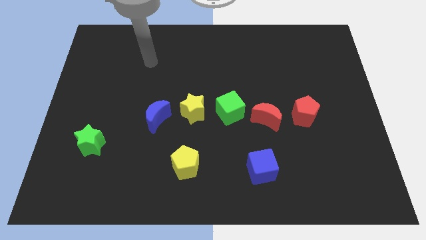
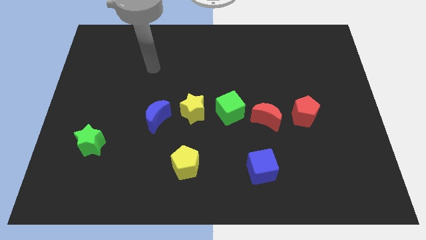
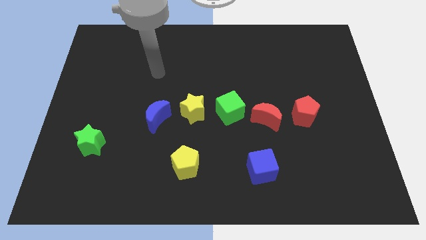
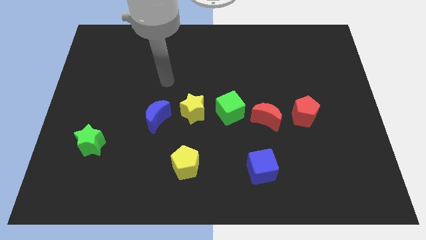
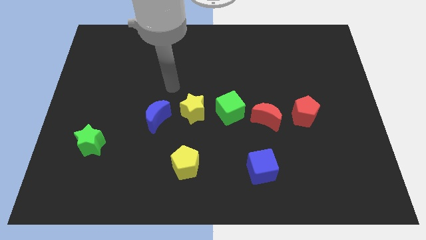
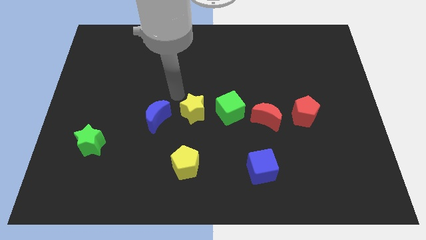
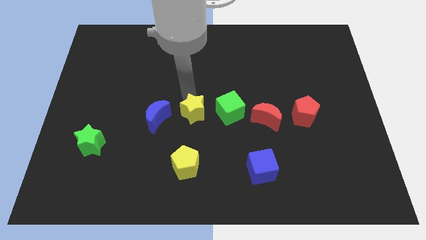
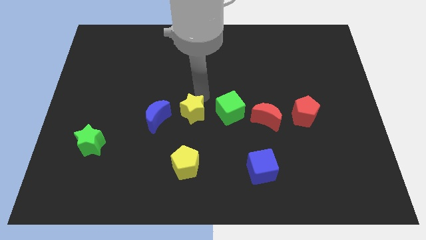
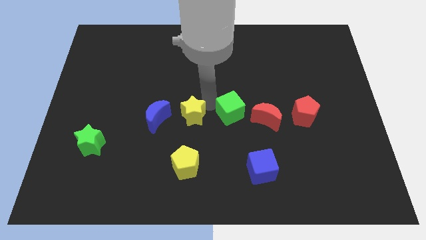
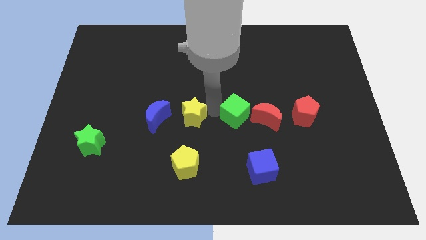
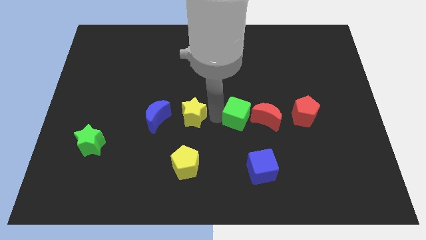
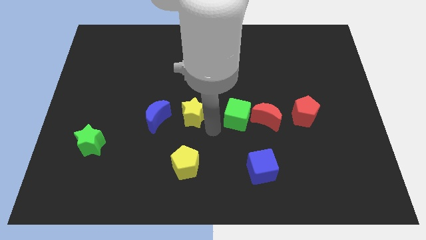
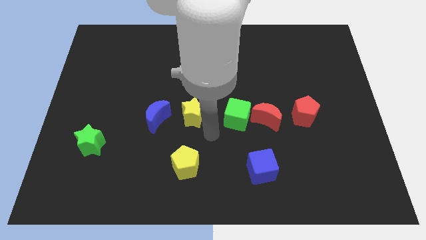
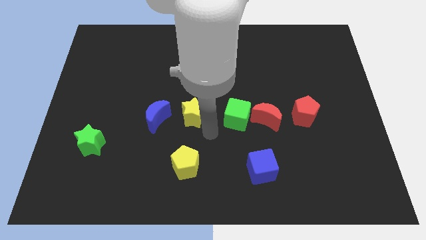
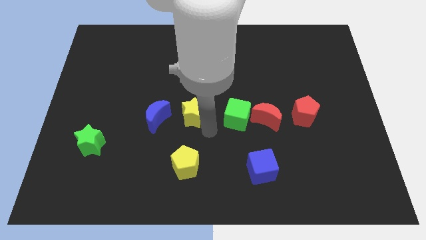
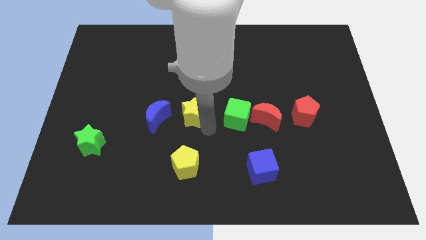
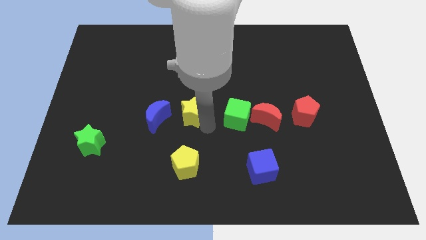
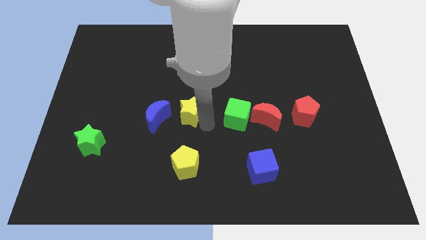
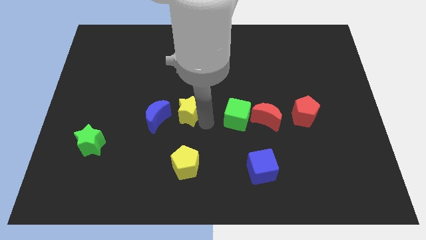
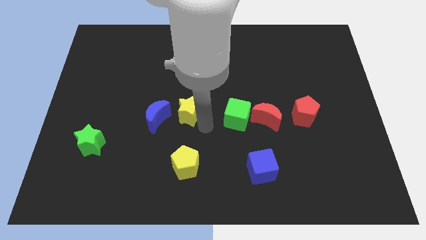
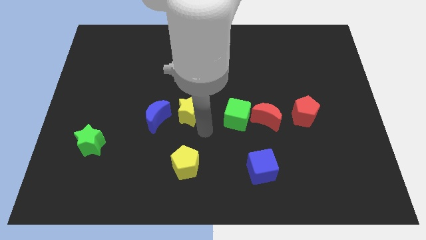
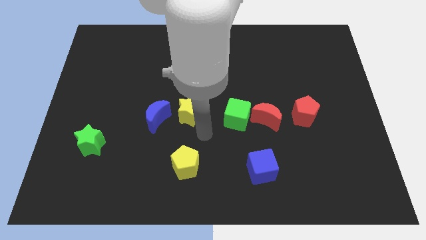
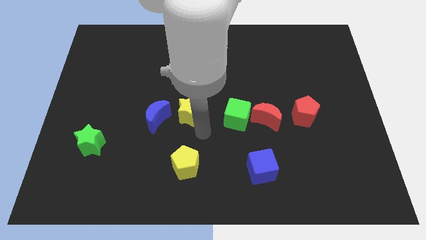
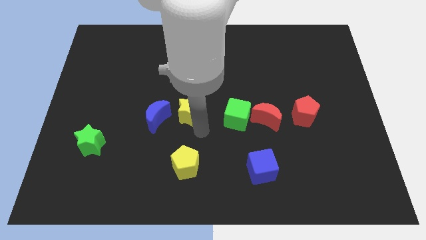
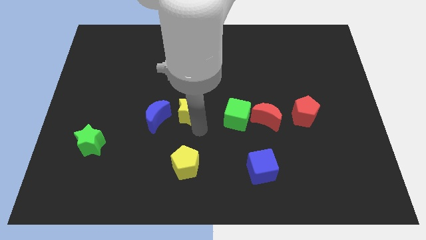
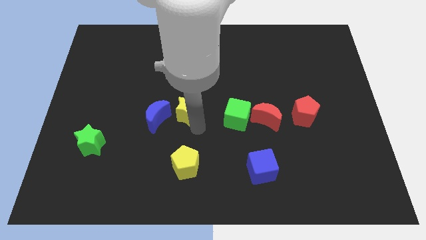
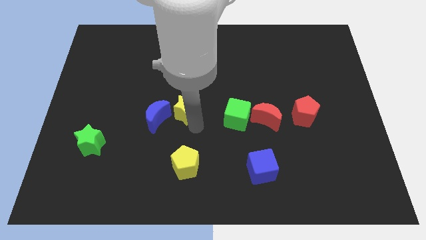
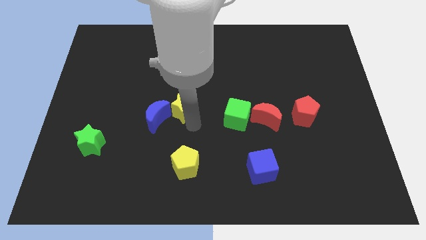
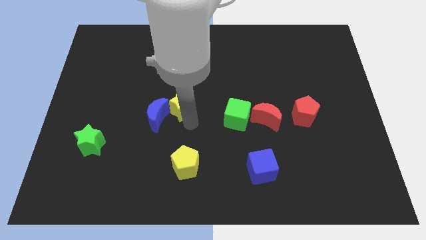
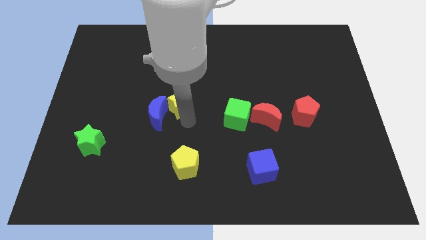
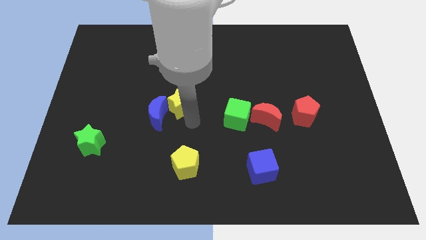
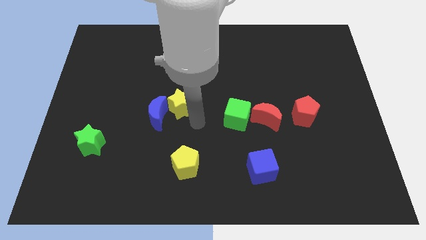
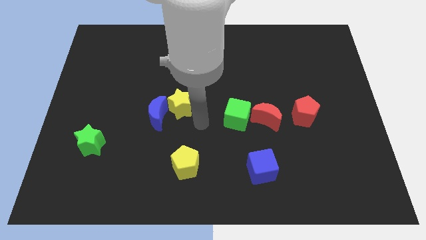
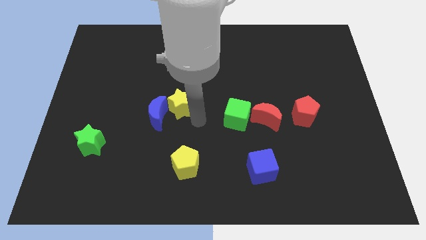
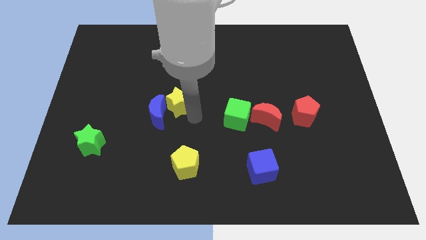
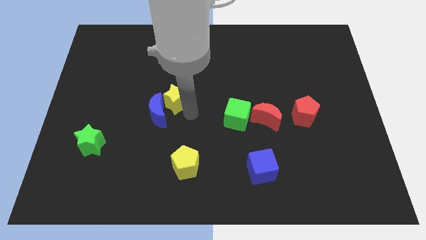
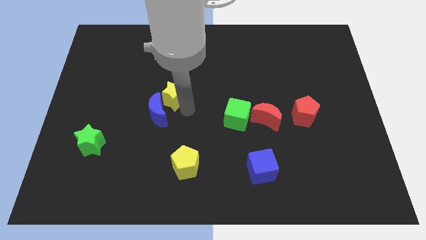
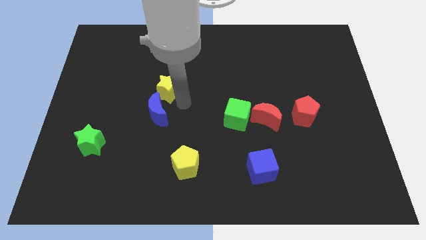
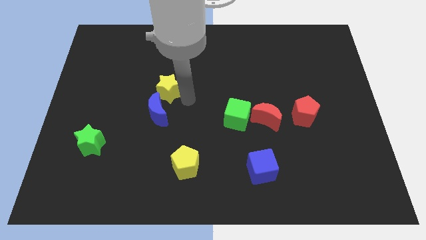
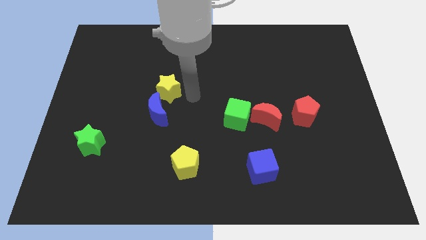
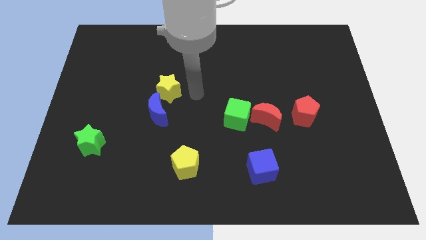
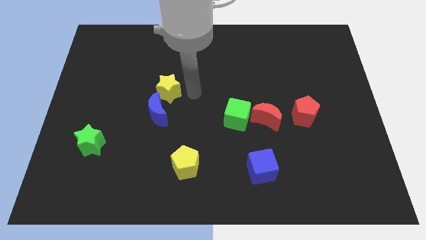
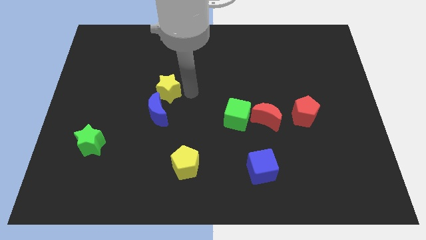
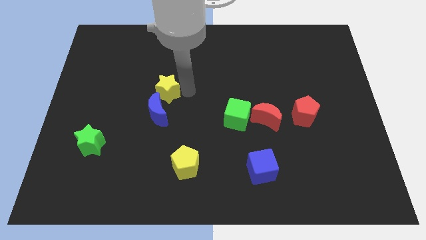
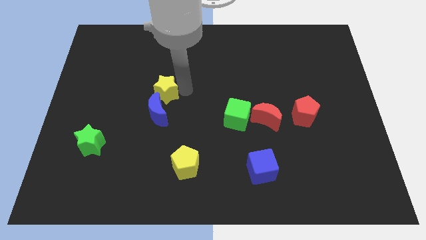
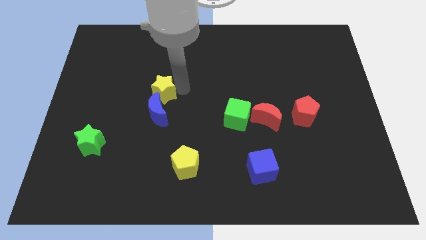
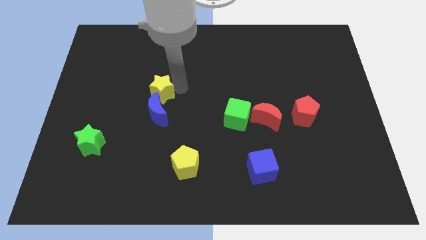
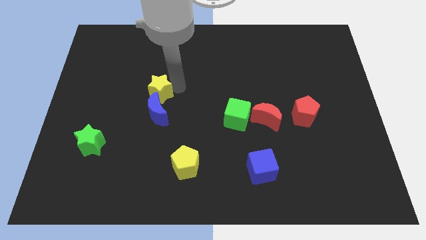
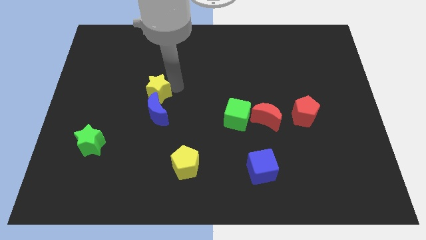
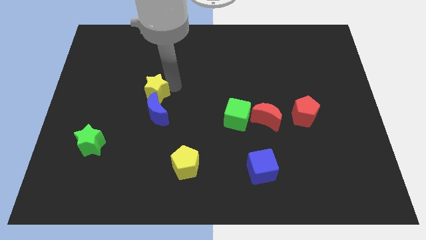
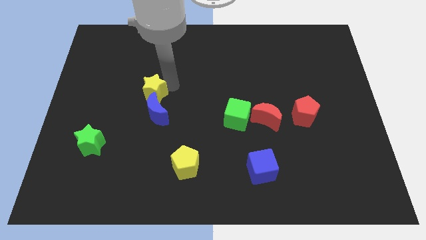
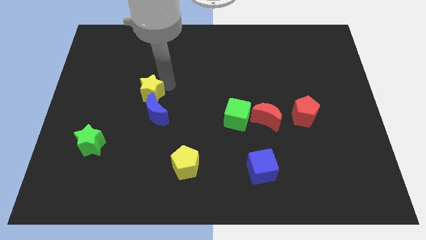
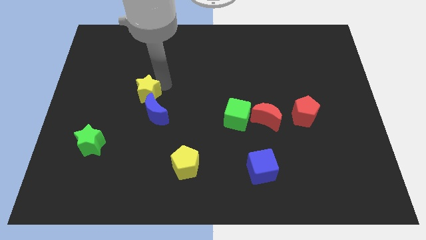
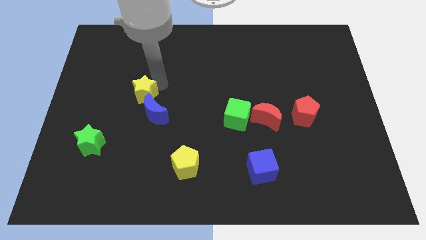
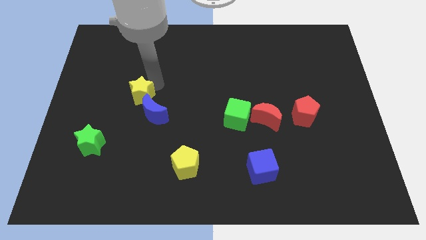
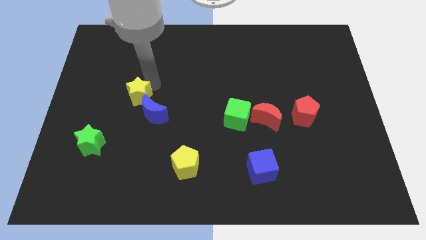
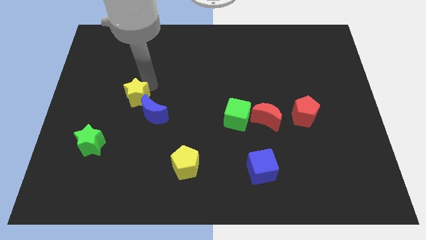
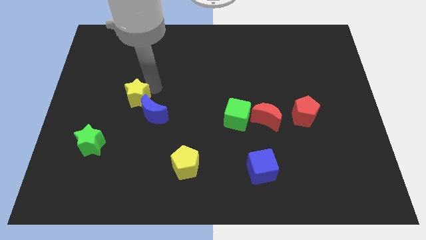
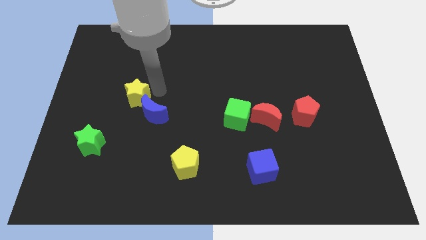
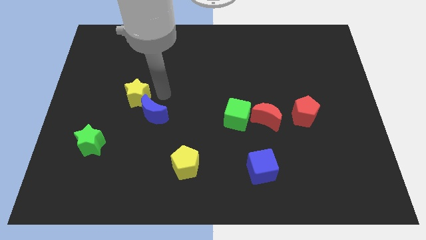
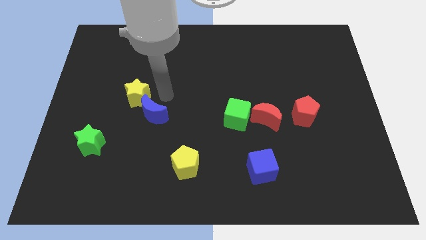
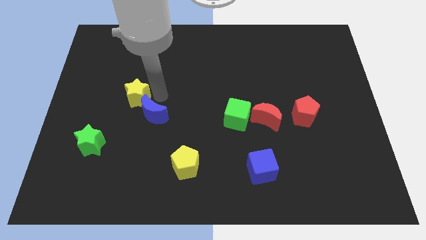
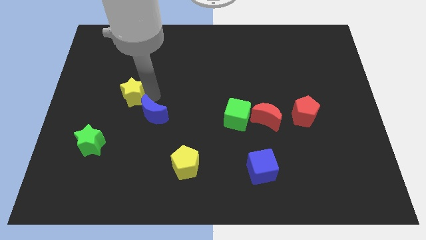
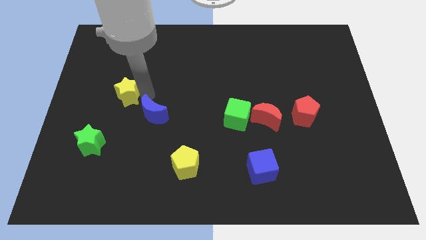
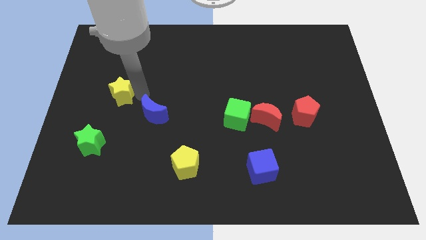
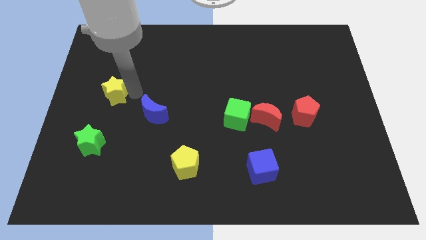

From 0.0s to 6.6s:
slide the yellow star to the top side of the green star
